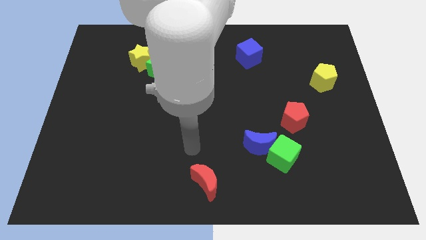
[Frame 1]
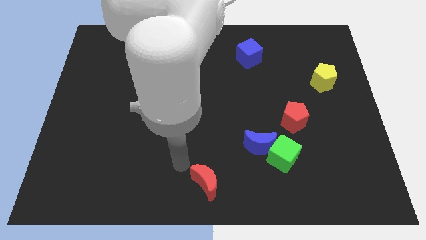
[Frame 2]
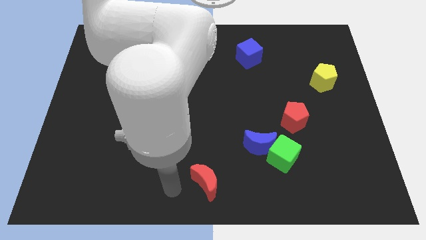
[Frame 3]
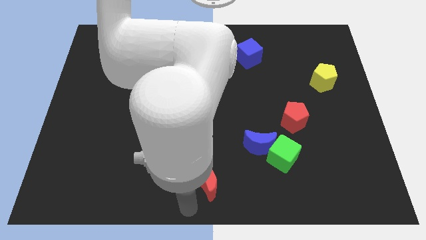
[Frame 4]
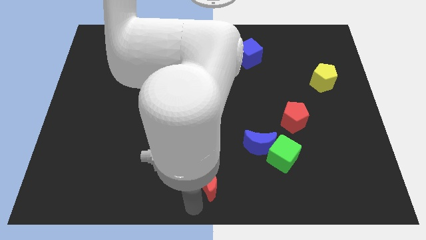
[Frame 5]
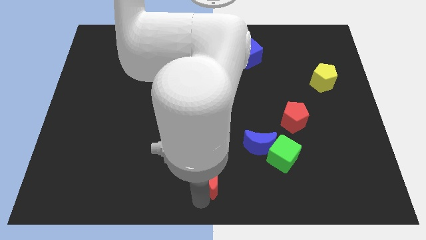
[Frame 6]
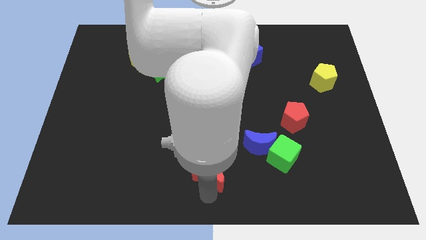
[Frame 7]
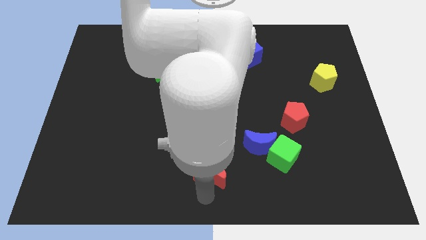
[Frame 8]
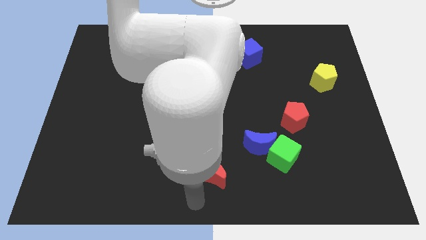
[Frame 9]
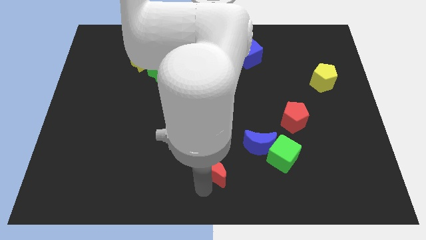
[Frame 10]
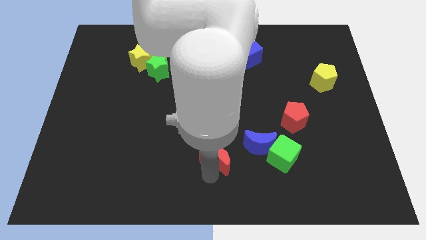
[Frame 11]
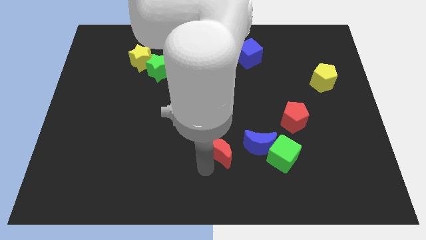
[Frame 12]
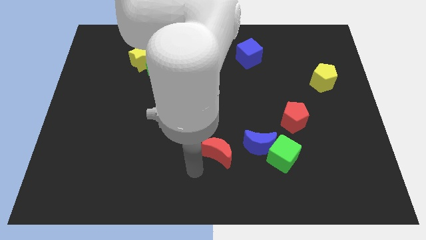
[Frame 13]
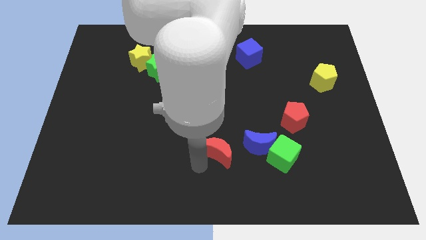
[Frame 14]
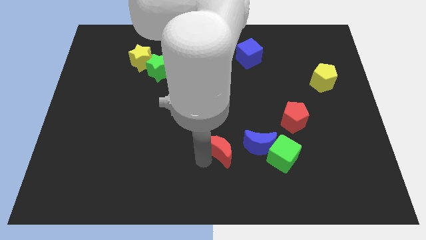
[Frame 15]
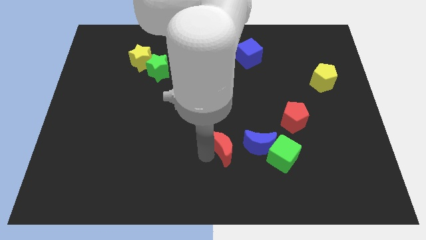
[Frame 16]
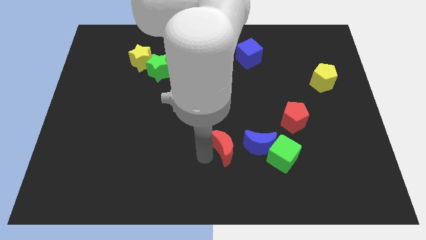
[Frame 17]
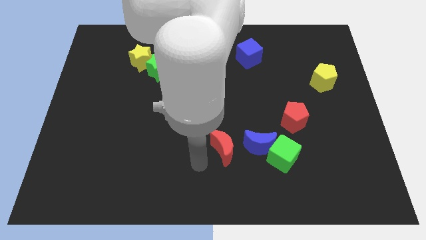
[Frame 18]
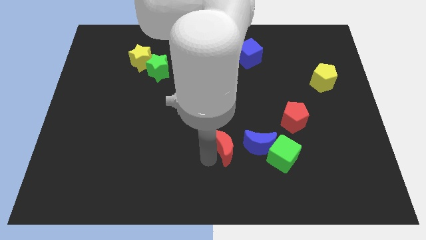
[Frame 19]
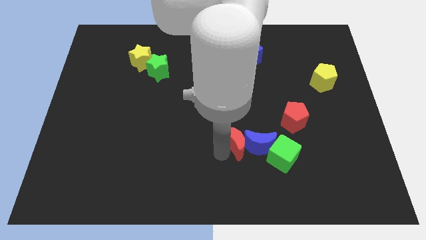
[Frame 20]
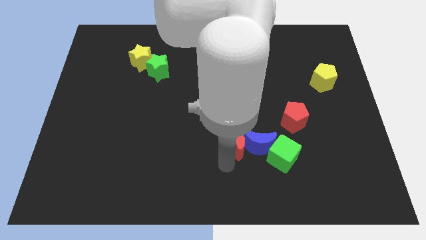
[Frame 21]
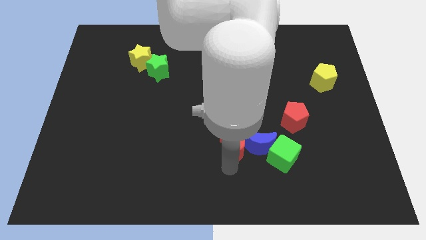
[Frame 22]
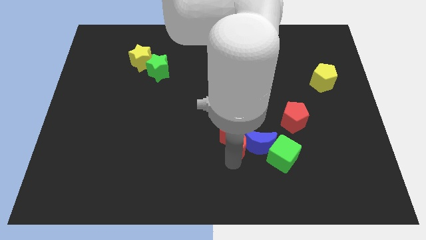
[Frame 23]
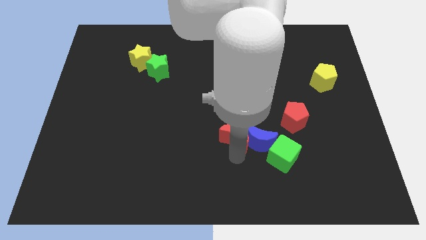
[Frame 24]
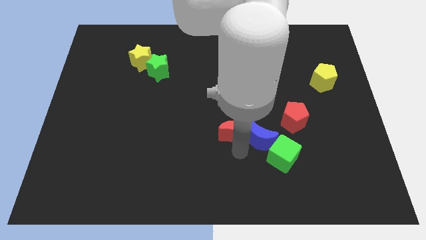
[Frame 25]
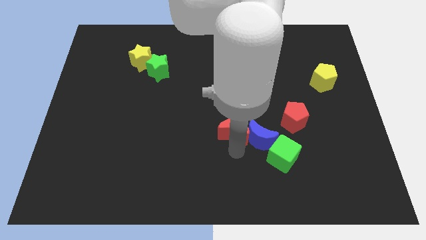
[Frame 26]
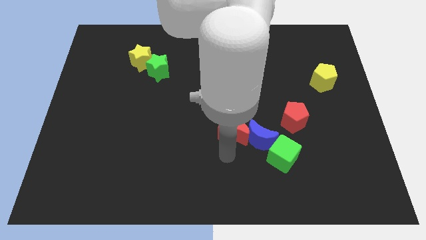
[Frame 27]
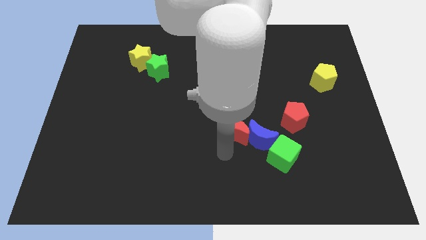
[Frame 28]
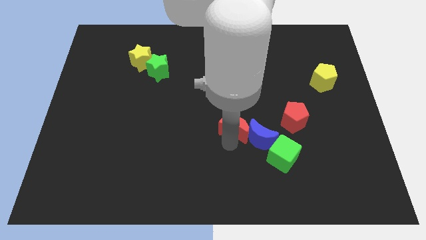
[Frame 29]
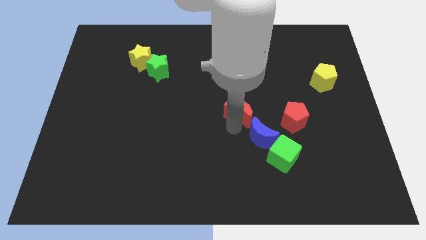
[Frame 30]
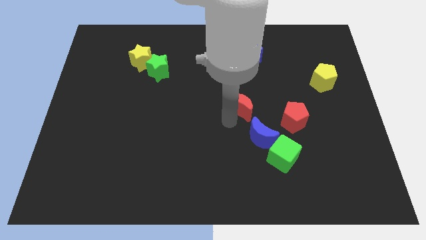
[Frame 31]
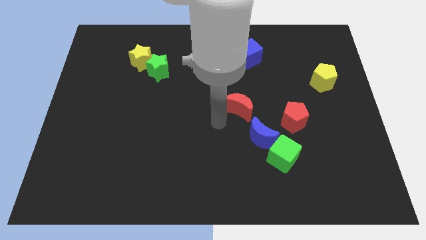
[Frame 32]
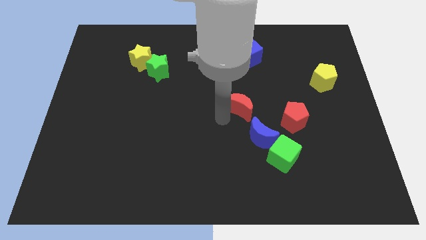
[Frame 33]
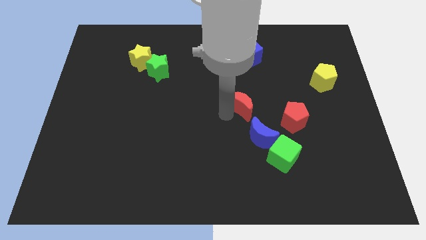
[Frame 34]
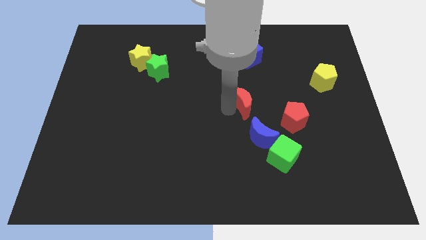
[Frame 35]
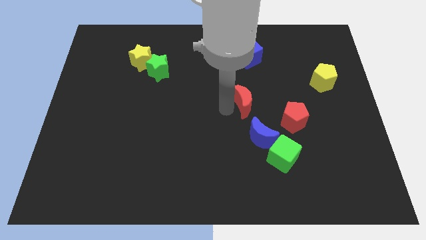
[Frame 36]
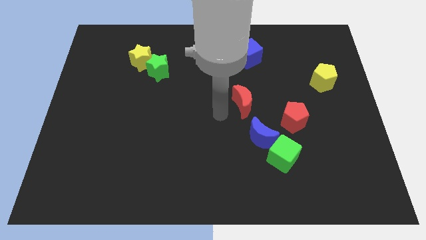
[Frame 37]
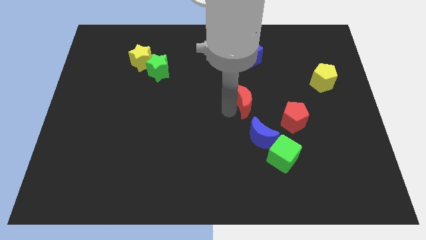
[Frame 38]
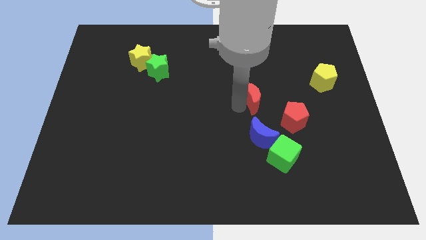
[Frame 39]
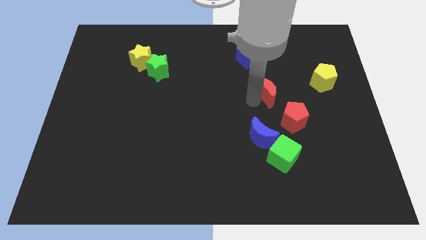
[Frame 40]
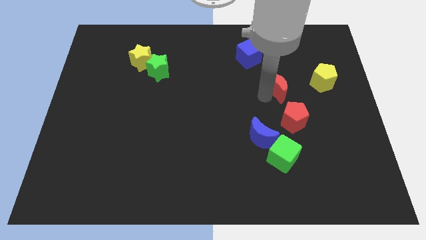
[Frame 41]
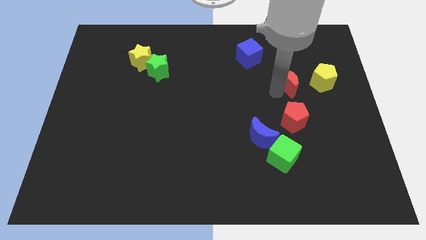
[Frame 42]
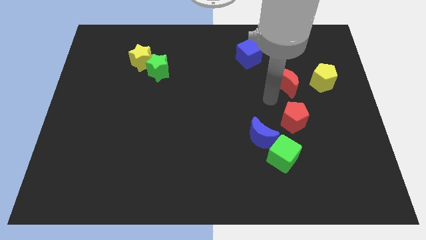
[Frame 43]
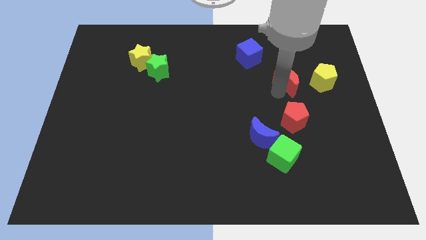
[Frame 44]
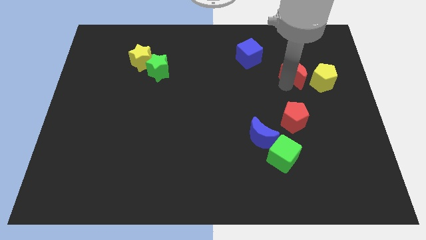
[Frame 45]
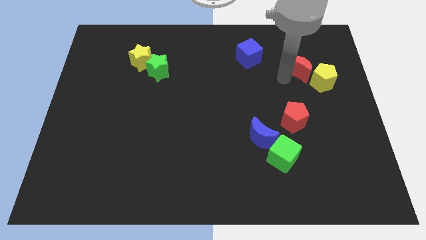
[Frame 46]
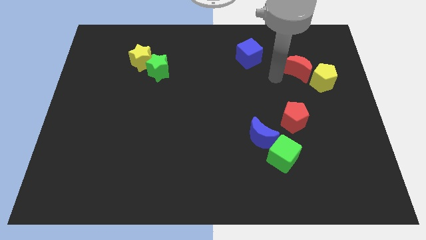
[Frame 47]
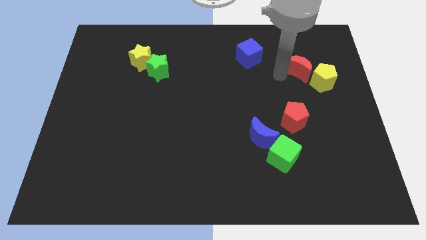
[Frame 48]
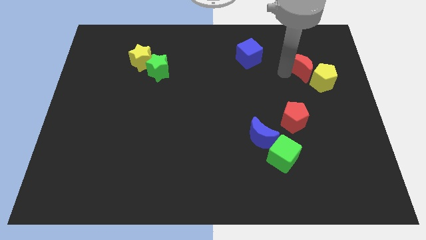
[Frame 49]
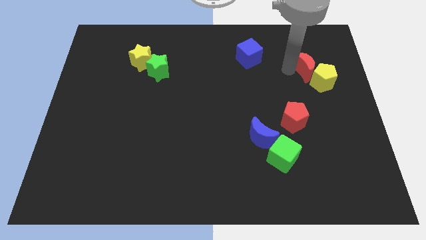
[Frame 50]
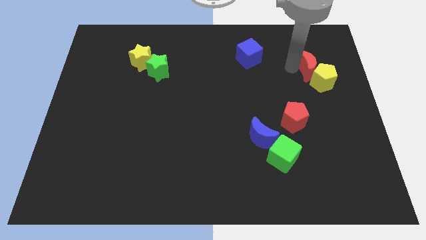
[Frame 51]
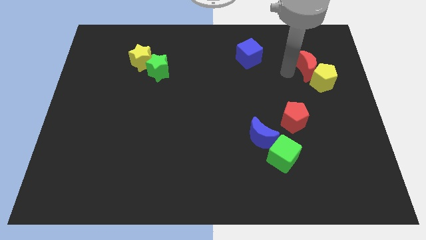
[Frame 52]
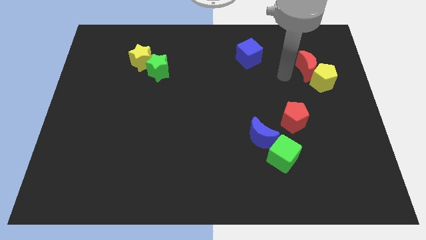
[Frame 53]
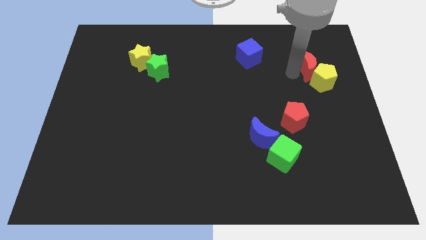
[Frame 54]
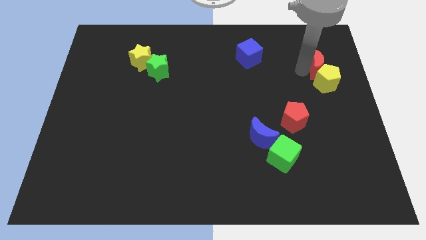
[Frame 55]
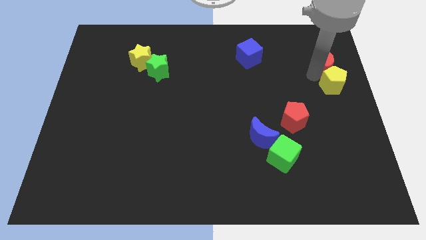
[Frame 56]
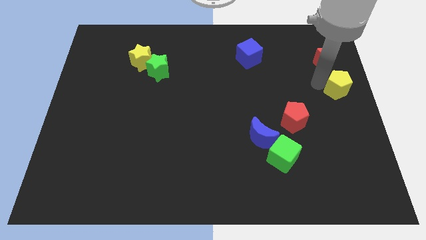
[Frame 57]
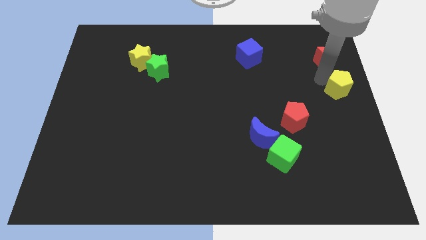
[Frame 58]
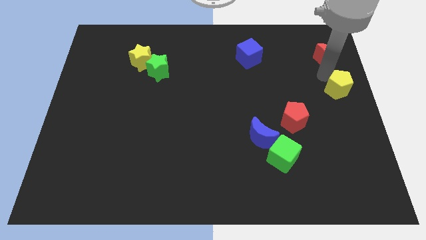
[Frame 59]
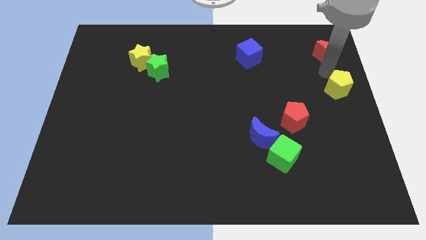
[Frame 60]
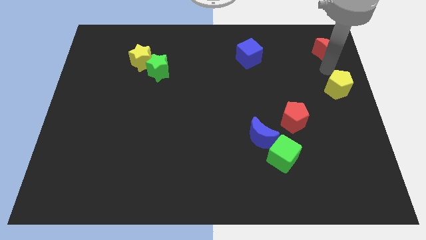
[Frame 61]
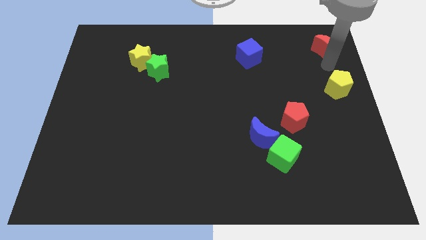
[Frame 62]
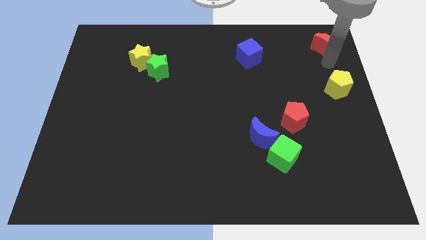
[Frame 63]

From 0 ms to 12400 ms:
push the red moon to the top right corner
